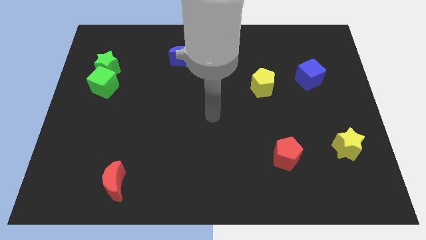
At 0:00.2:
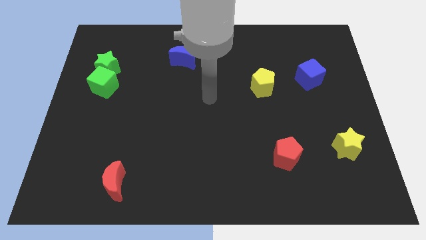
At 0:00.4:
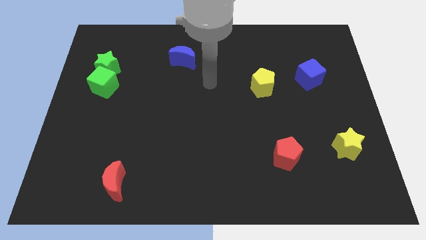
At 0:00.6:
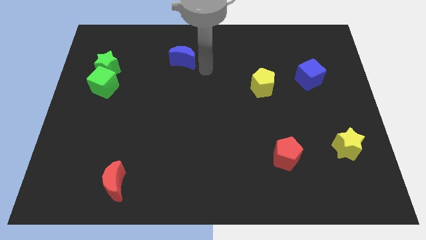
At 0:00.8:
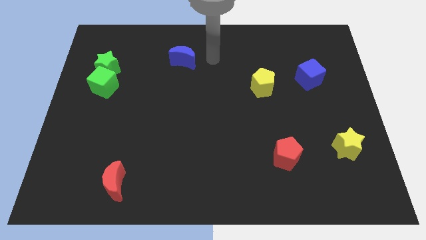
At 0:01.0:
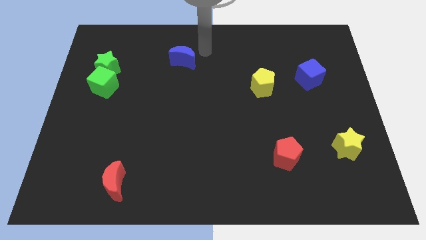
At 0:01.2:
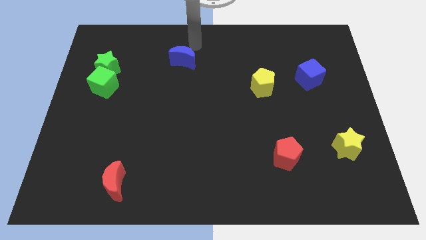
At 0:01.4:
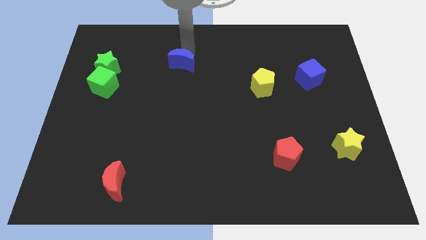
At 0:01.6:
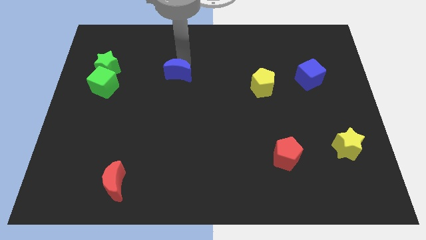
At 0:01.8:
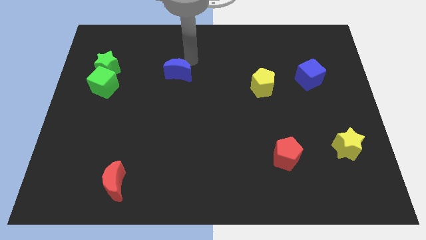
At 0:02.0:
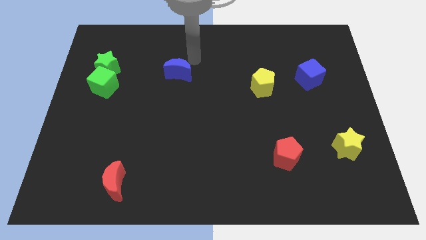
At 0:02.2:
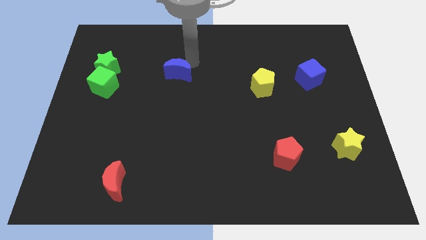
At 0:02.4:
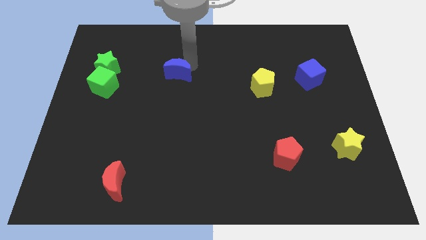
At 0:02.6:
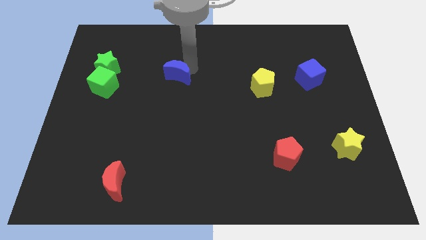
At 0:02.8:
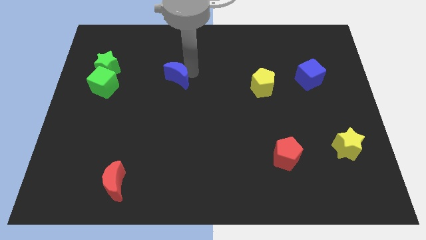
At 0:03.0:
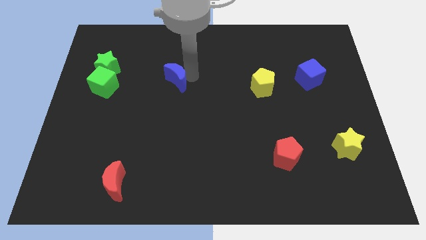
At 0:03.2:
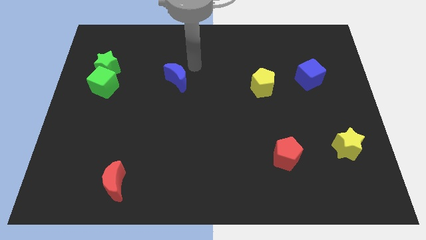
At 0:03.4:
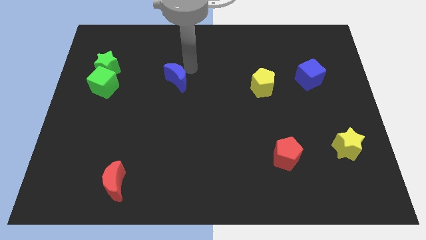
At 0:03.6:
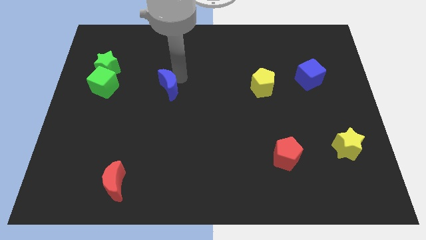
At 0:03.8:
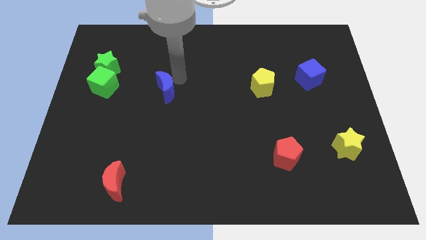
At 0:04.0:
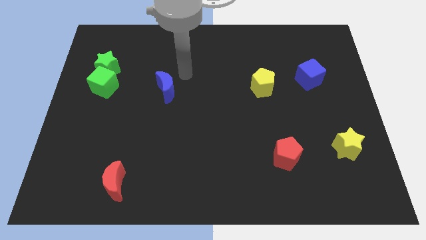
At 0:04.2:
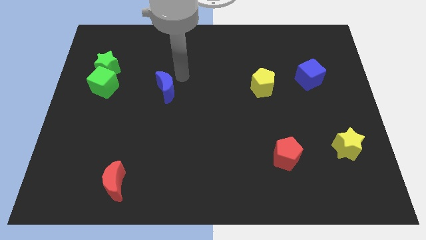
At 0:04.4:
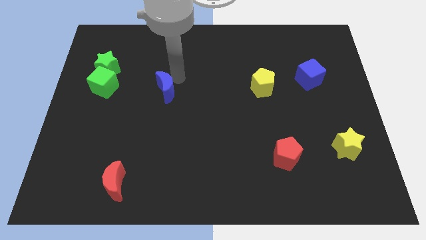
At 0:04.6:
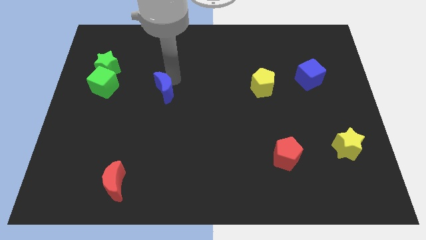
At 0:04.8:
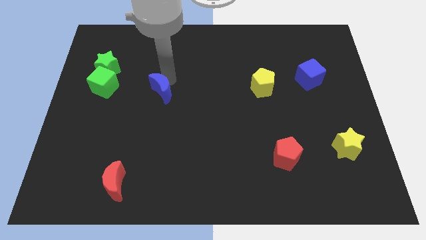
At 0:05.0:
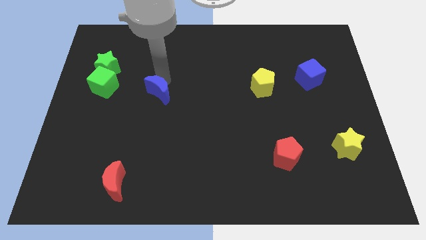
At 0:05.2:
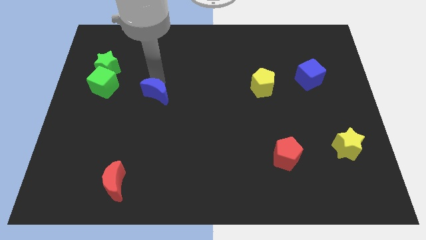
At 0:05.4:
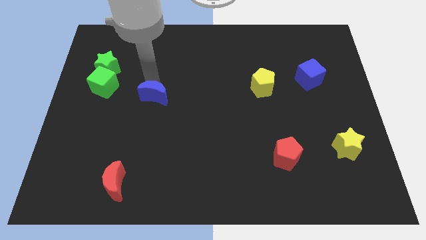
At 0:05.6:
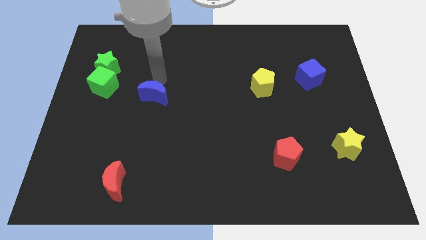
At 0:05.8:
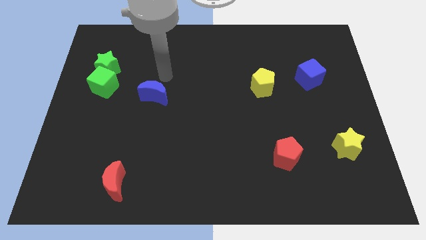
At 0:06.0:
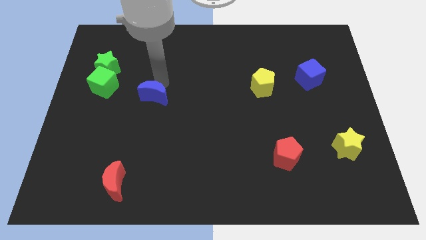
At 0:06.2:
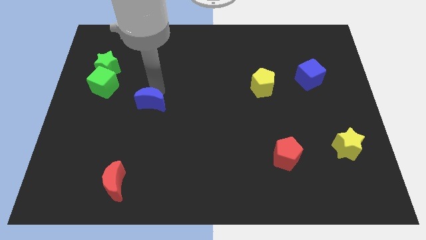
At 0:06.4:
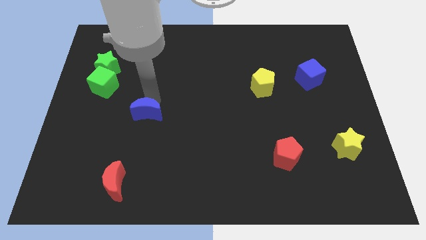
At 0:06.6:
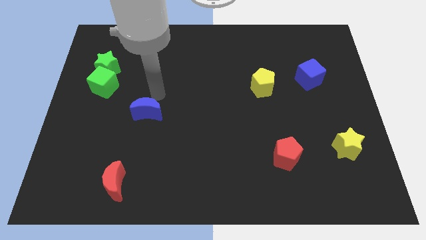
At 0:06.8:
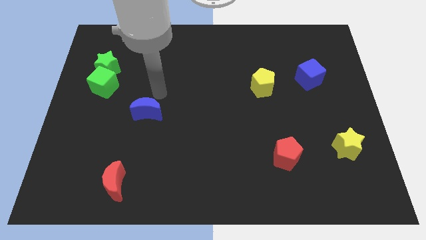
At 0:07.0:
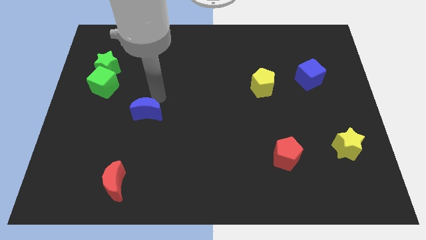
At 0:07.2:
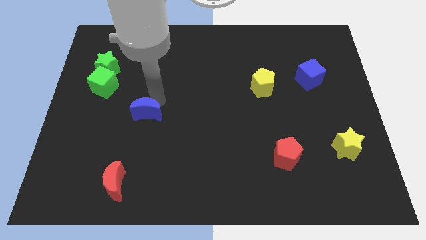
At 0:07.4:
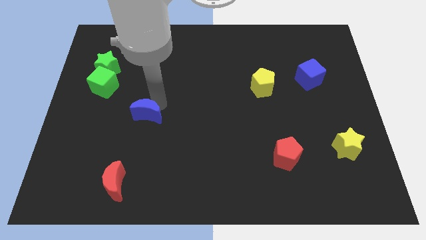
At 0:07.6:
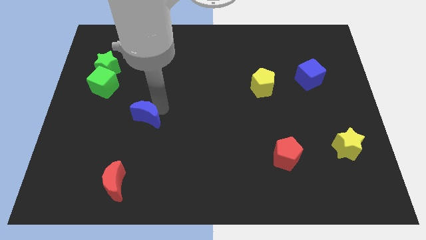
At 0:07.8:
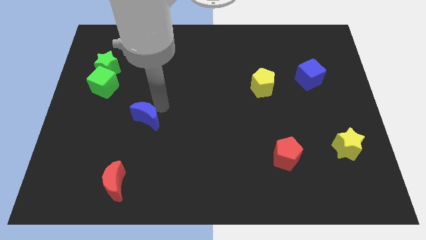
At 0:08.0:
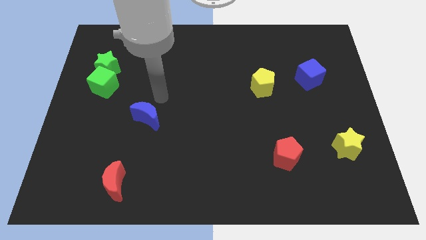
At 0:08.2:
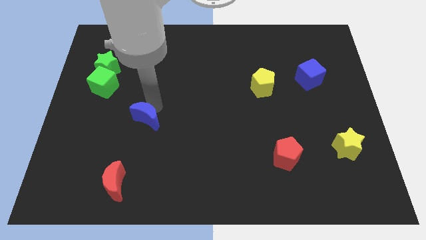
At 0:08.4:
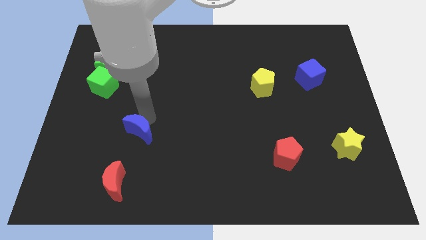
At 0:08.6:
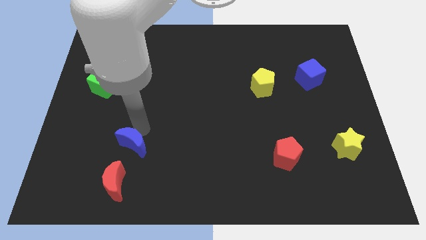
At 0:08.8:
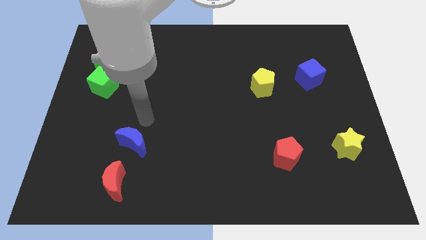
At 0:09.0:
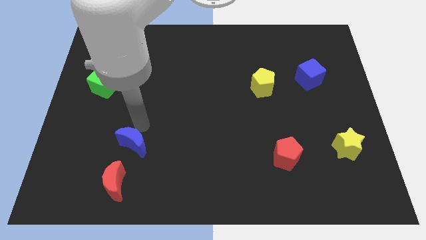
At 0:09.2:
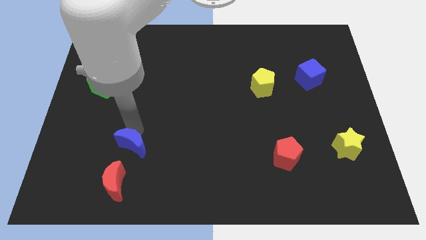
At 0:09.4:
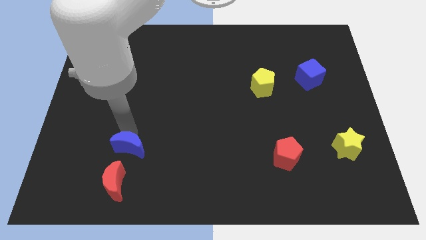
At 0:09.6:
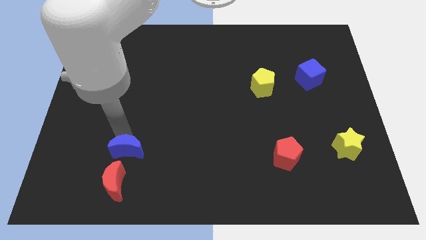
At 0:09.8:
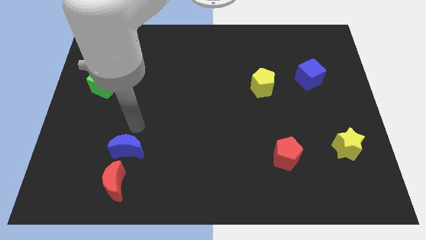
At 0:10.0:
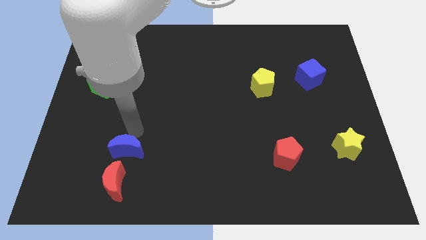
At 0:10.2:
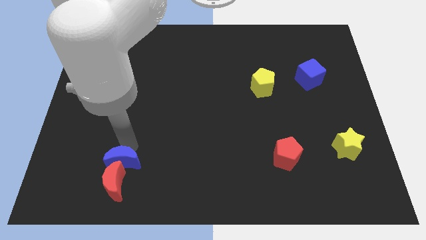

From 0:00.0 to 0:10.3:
put the blue moon next to the red moon

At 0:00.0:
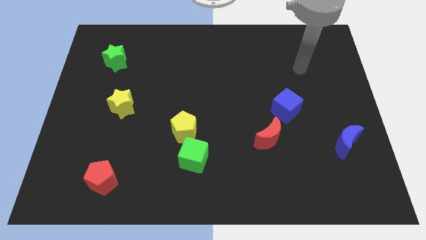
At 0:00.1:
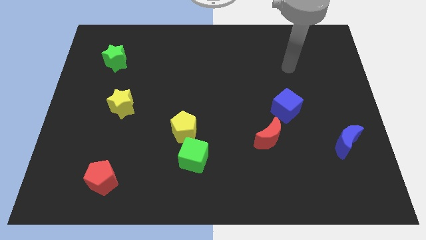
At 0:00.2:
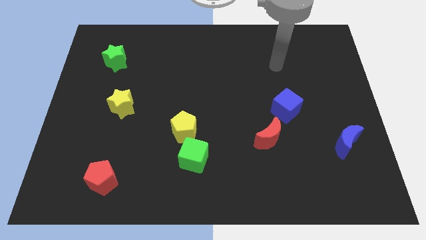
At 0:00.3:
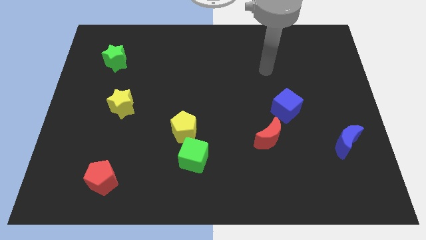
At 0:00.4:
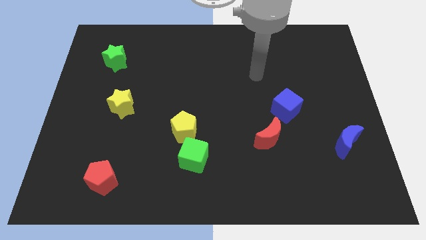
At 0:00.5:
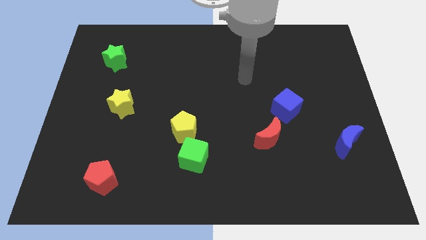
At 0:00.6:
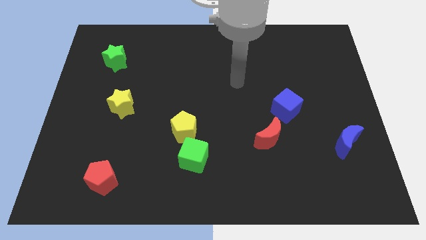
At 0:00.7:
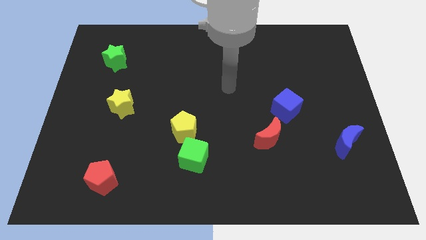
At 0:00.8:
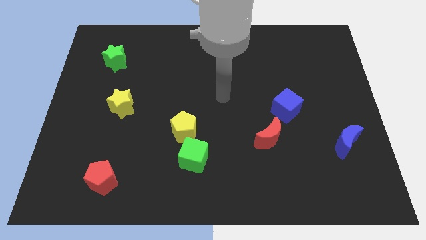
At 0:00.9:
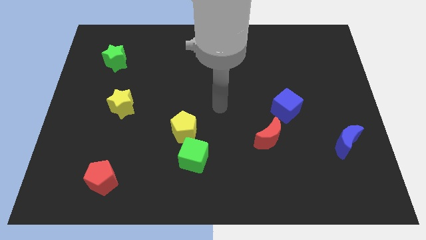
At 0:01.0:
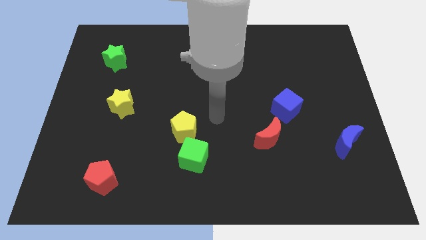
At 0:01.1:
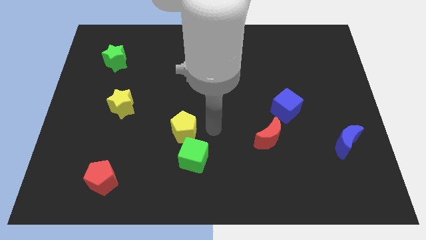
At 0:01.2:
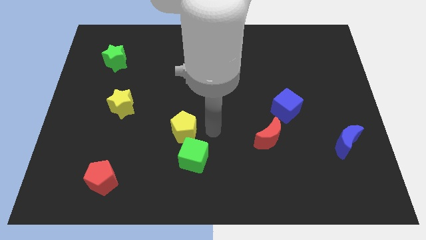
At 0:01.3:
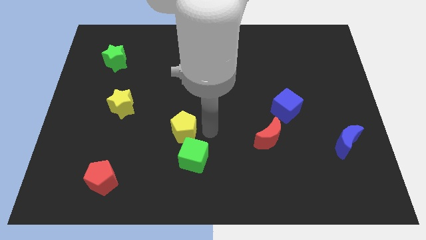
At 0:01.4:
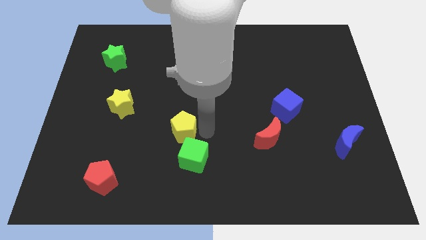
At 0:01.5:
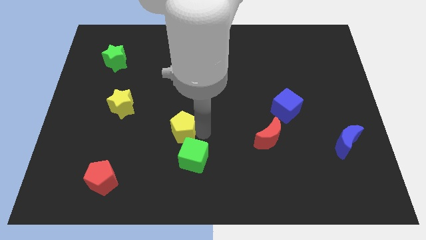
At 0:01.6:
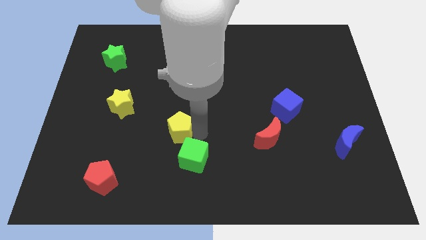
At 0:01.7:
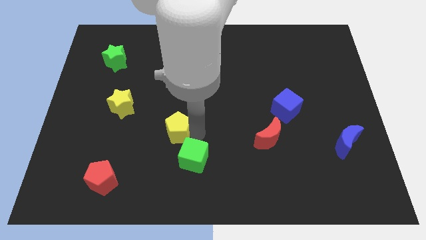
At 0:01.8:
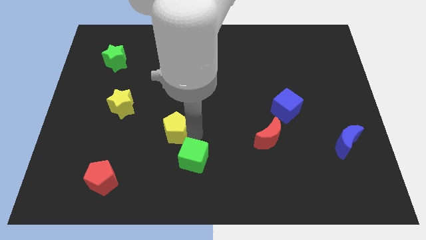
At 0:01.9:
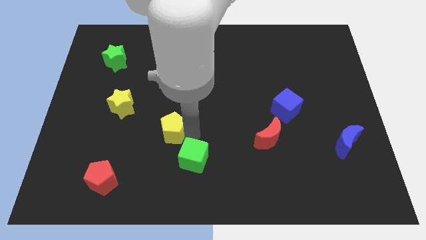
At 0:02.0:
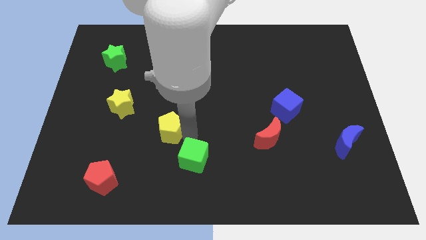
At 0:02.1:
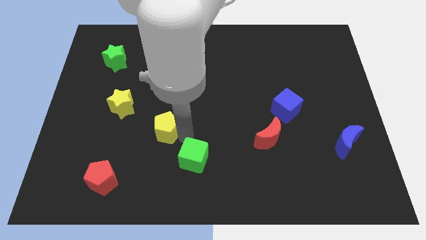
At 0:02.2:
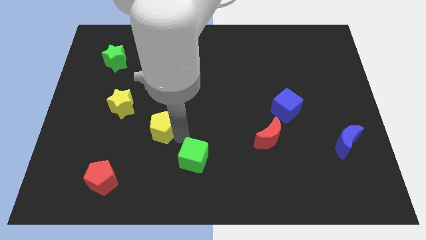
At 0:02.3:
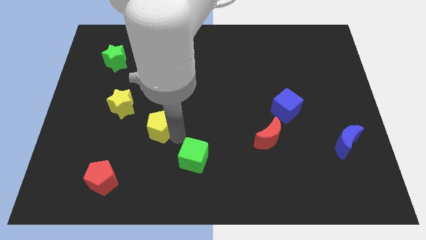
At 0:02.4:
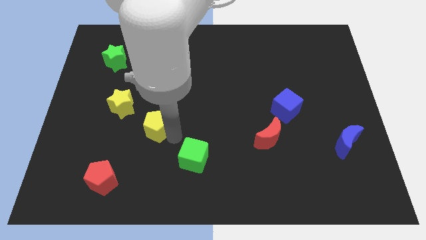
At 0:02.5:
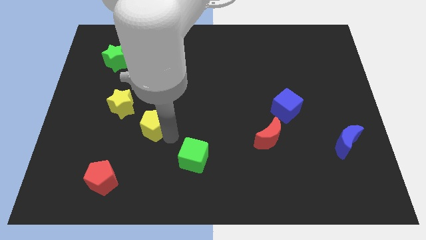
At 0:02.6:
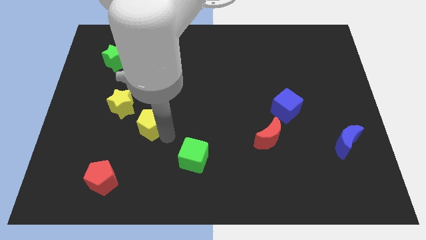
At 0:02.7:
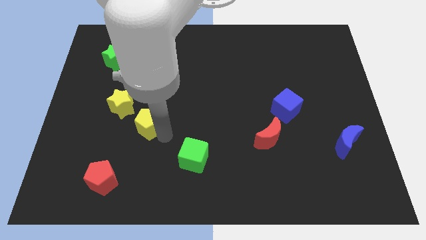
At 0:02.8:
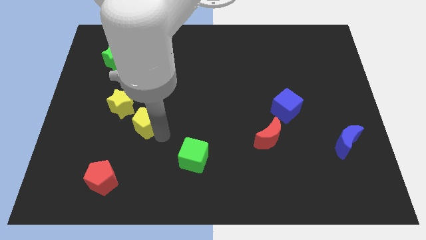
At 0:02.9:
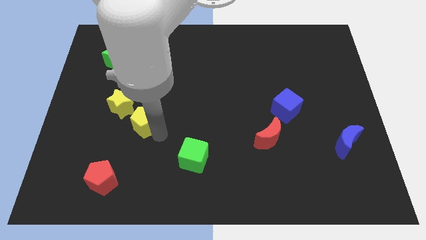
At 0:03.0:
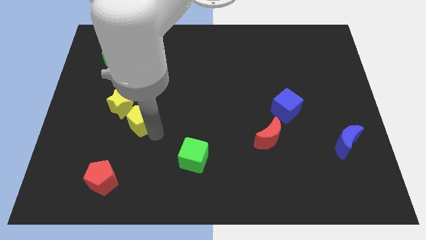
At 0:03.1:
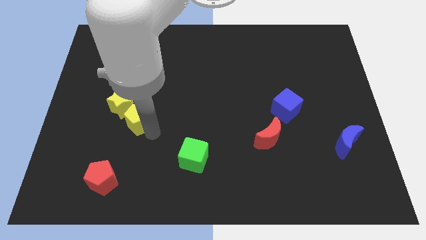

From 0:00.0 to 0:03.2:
move the yellow pentagon to the yellow star
